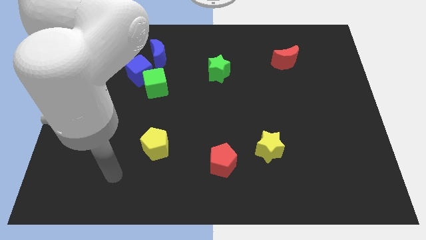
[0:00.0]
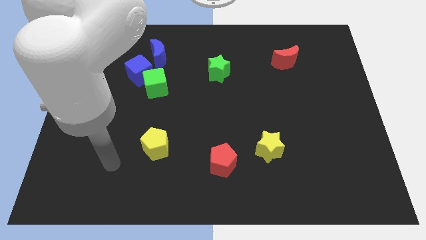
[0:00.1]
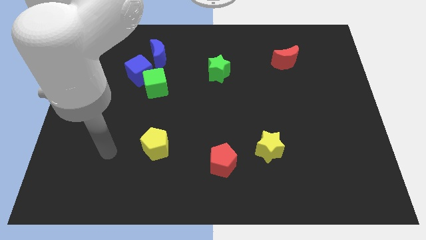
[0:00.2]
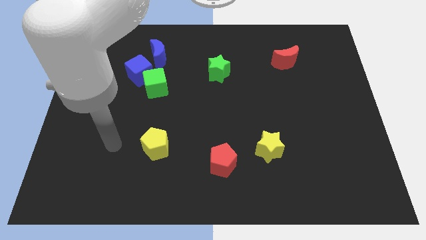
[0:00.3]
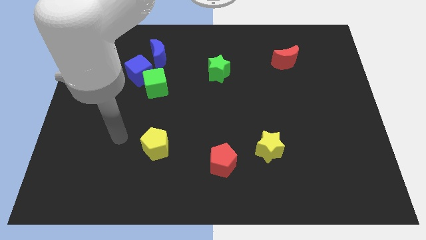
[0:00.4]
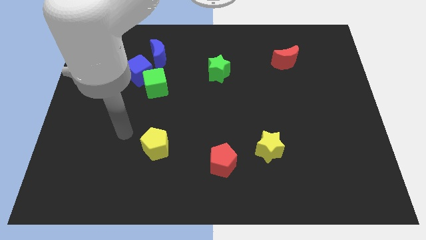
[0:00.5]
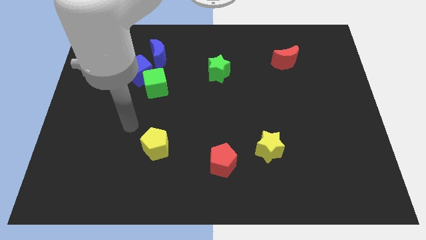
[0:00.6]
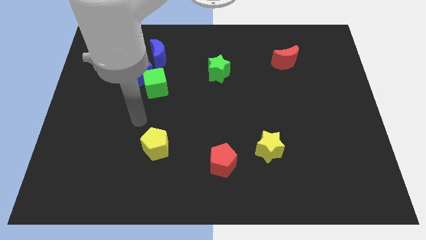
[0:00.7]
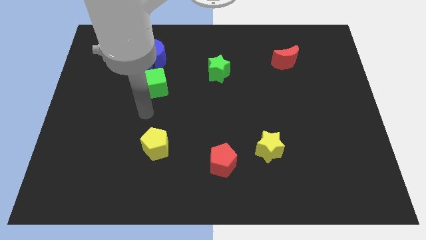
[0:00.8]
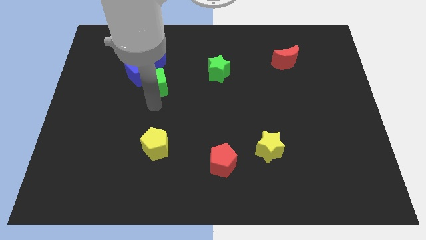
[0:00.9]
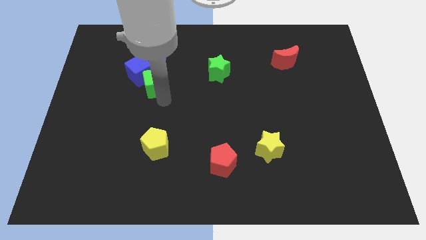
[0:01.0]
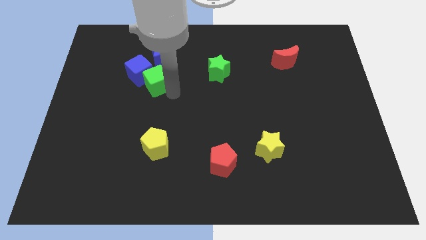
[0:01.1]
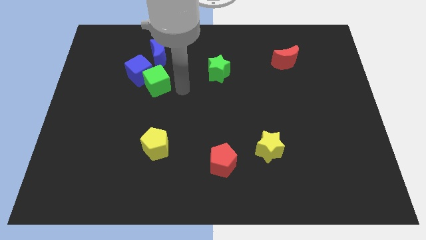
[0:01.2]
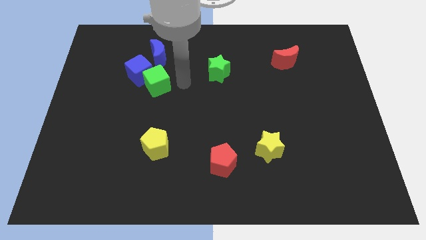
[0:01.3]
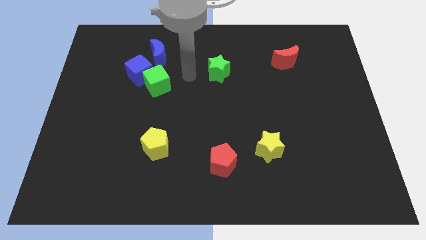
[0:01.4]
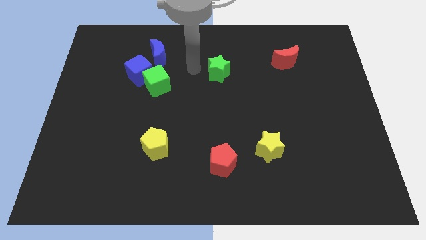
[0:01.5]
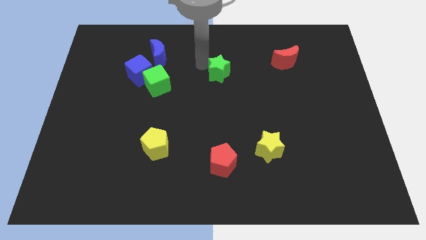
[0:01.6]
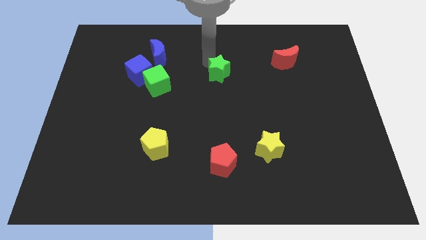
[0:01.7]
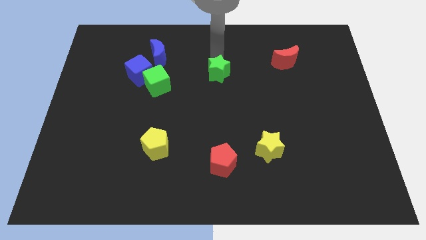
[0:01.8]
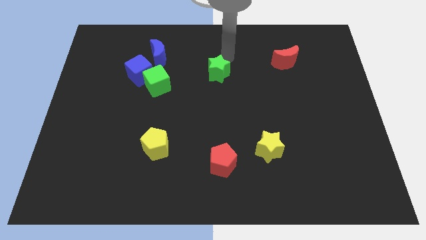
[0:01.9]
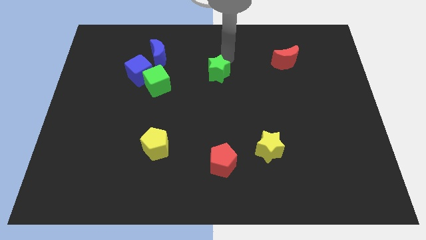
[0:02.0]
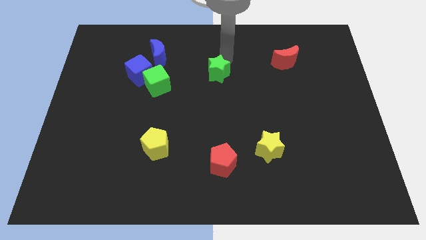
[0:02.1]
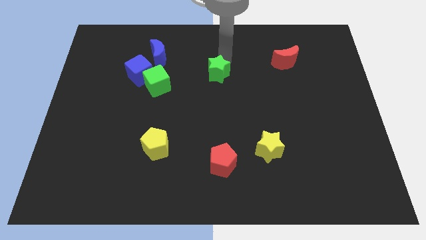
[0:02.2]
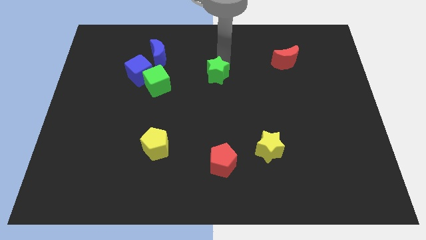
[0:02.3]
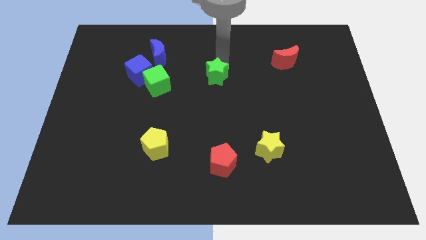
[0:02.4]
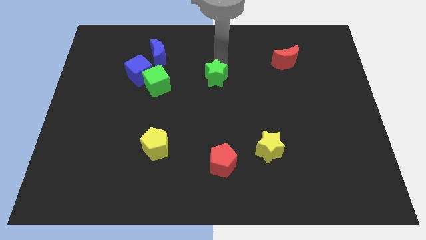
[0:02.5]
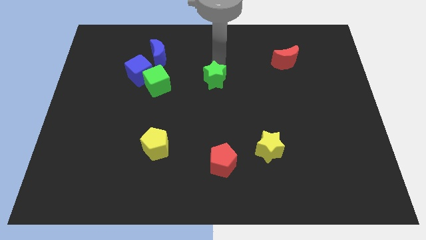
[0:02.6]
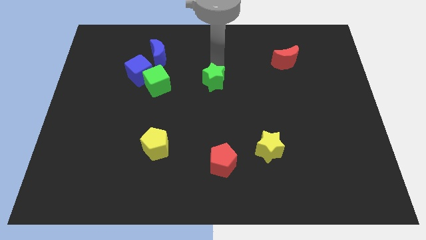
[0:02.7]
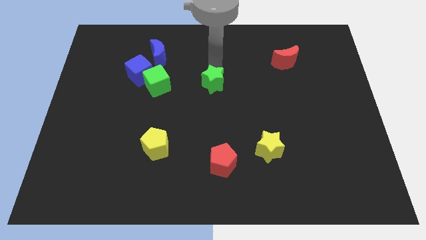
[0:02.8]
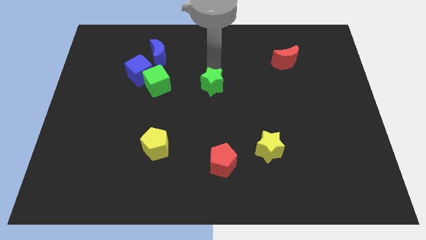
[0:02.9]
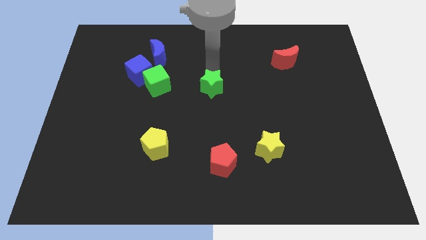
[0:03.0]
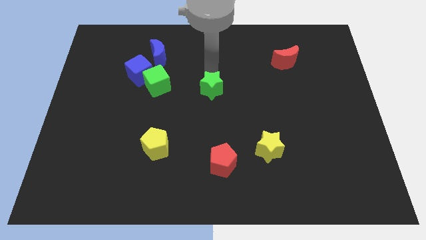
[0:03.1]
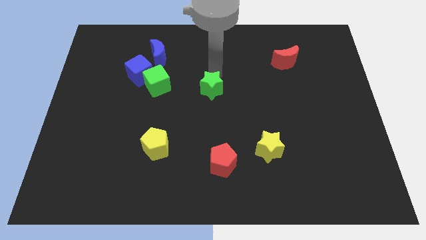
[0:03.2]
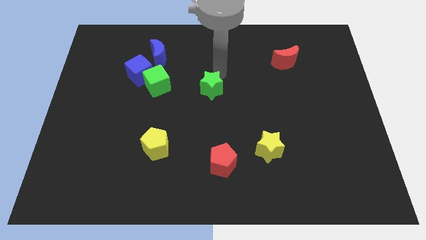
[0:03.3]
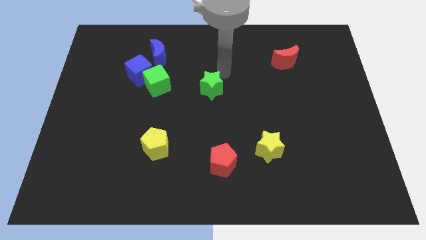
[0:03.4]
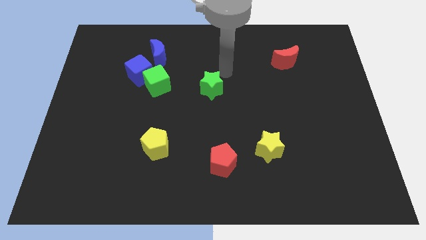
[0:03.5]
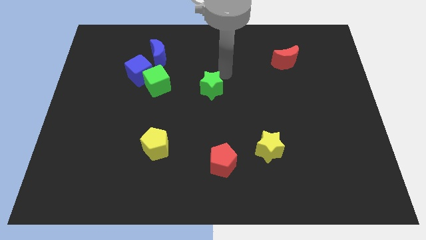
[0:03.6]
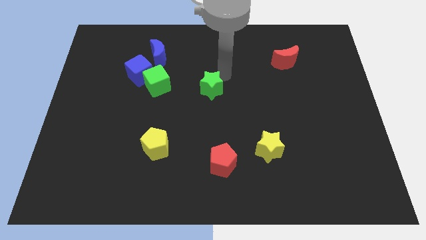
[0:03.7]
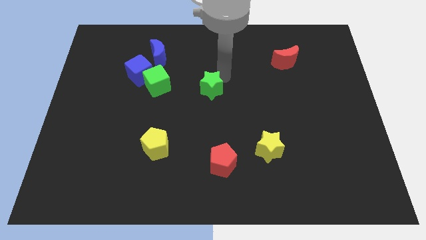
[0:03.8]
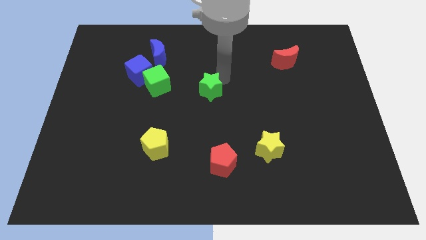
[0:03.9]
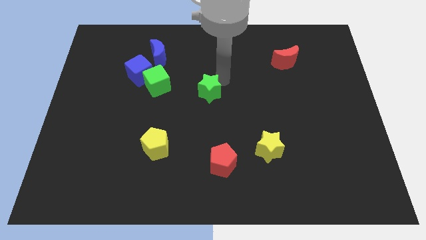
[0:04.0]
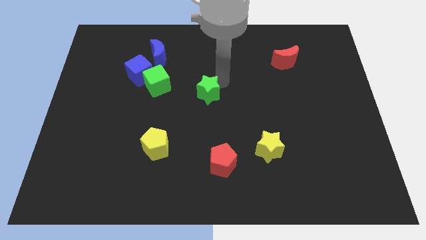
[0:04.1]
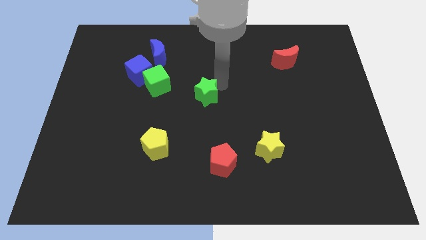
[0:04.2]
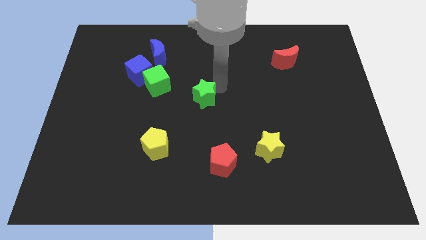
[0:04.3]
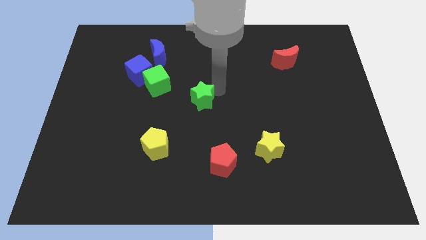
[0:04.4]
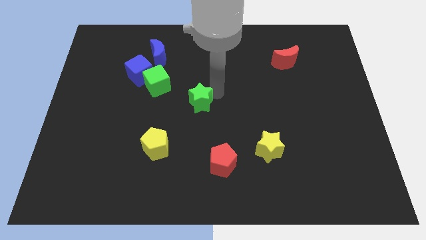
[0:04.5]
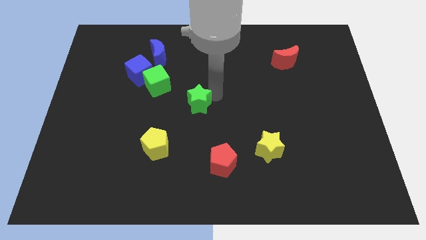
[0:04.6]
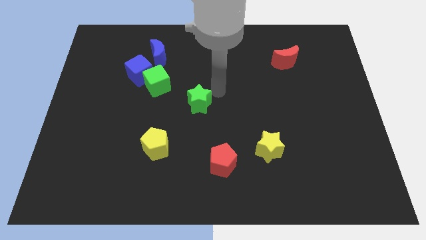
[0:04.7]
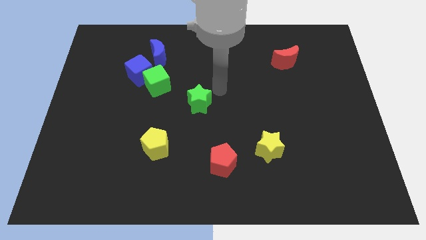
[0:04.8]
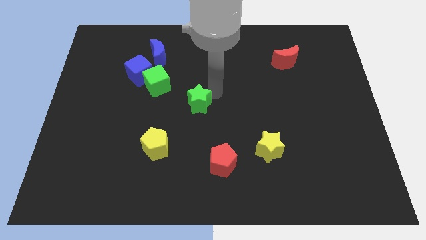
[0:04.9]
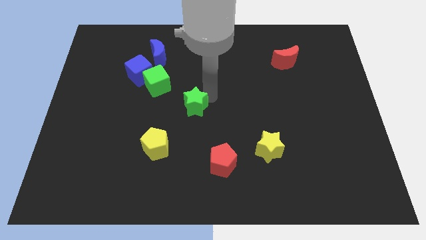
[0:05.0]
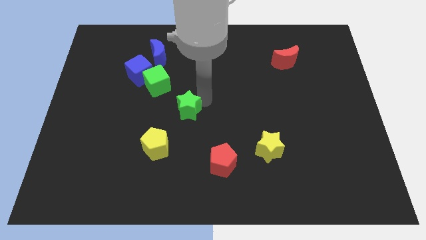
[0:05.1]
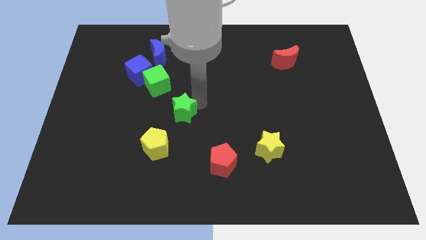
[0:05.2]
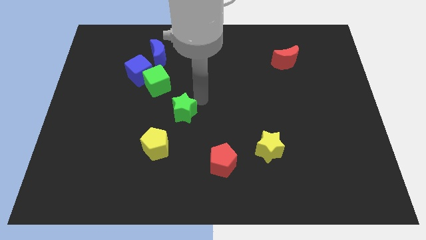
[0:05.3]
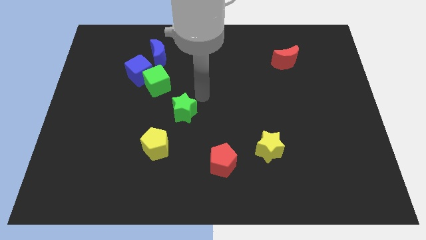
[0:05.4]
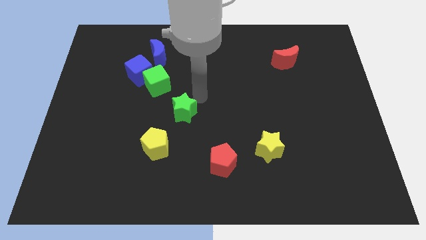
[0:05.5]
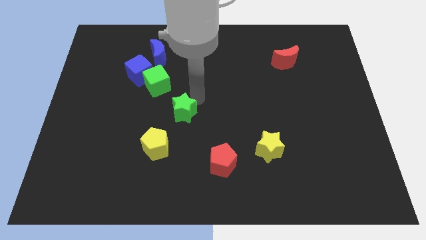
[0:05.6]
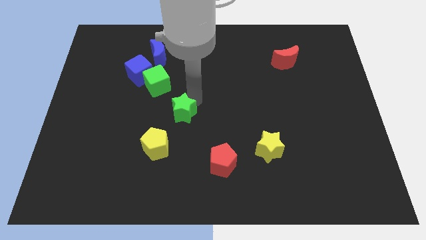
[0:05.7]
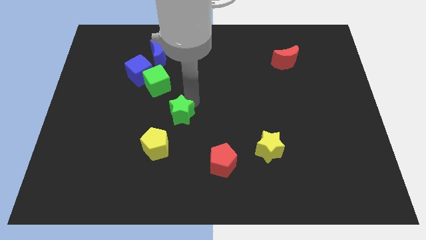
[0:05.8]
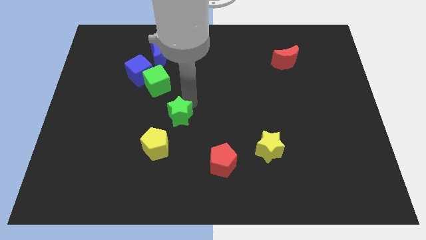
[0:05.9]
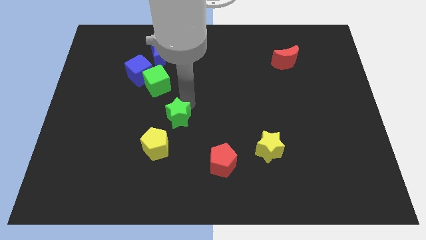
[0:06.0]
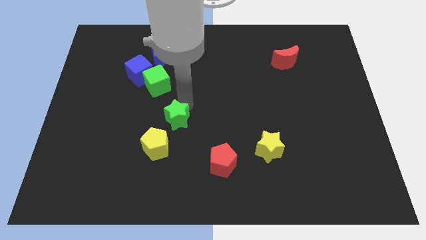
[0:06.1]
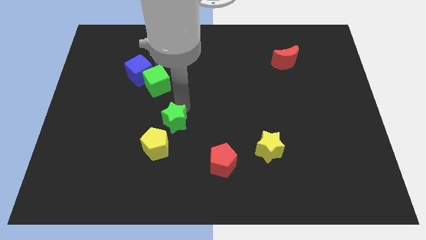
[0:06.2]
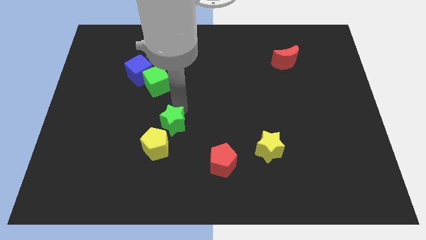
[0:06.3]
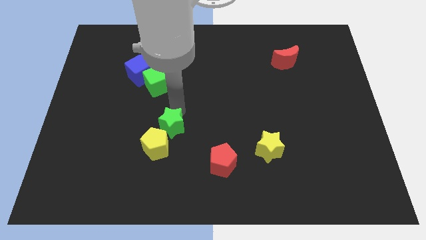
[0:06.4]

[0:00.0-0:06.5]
put the green star to the yellow pentagon

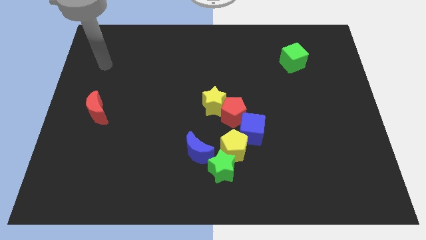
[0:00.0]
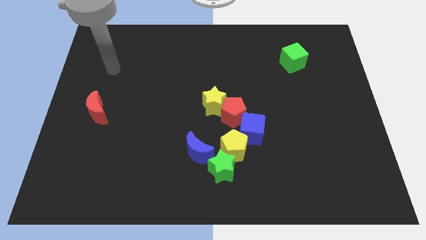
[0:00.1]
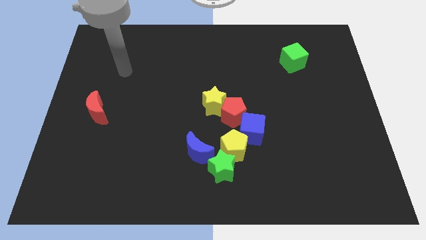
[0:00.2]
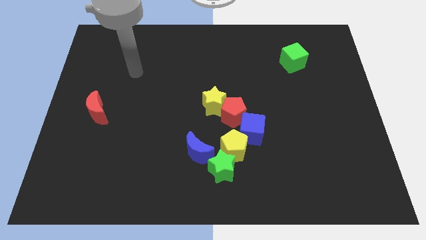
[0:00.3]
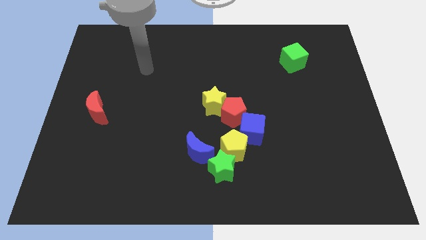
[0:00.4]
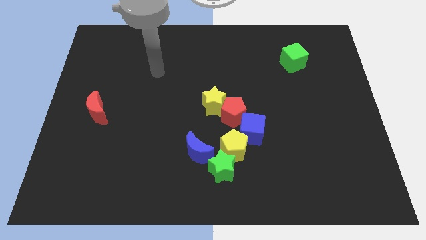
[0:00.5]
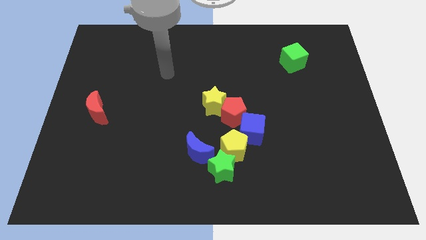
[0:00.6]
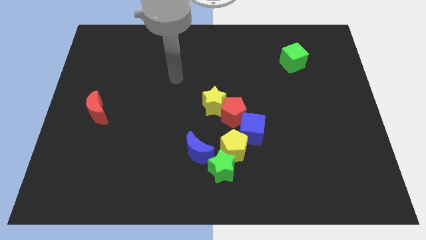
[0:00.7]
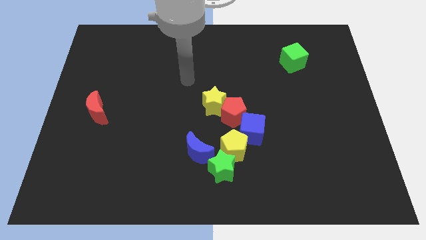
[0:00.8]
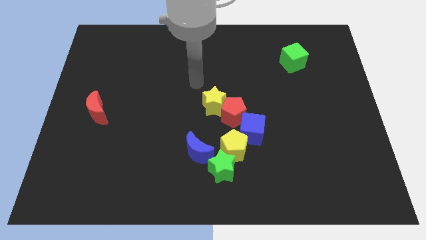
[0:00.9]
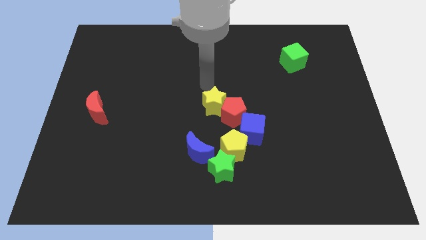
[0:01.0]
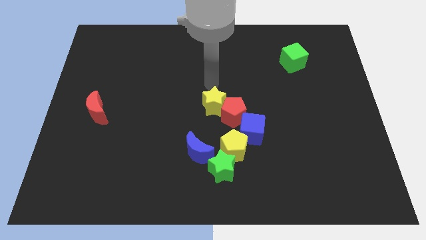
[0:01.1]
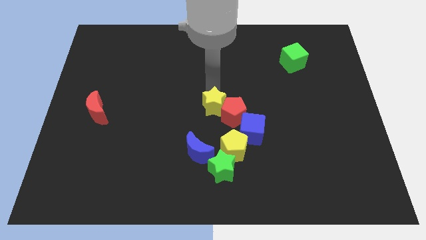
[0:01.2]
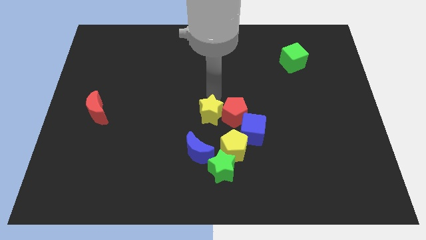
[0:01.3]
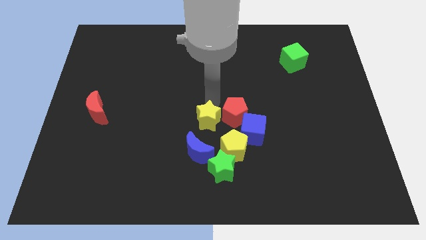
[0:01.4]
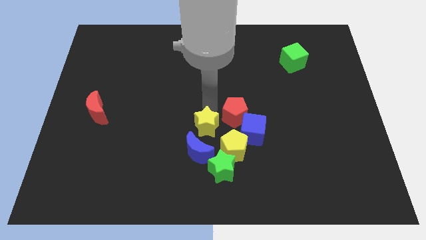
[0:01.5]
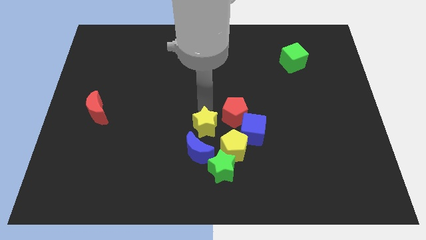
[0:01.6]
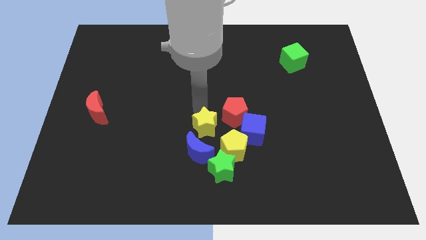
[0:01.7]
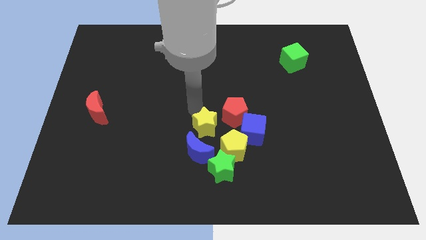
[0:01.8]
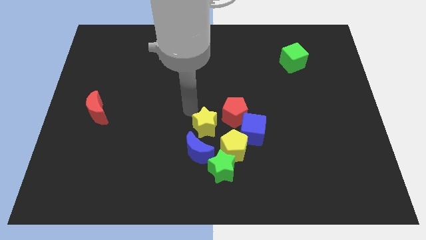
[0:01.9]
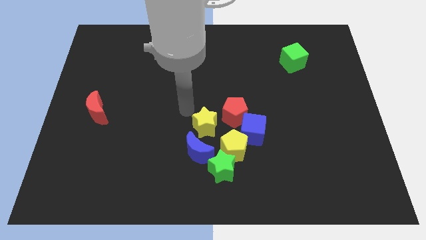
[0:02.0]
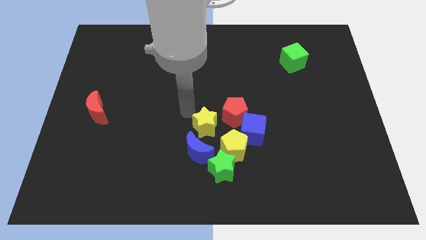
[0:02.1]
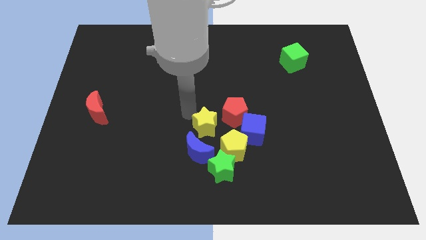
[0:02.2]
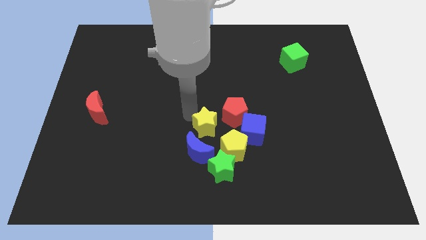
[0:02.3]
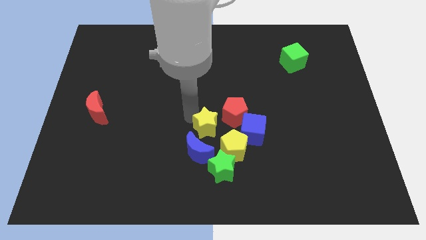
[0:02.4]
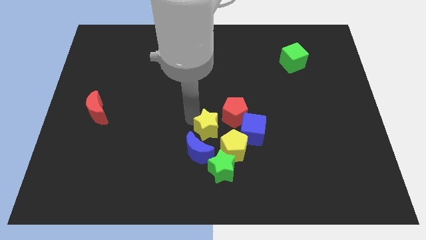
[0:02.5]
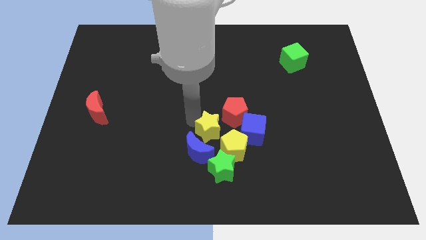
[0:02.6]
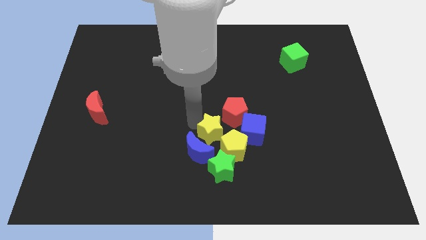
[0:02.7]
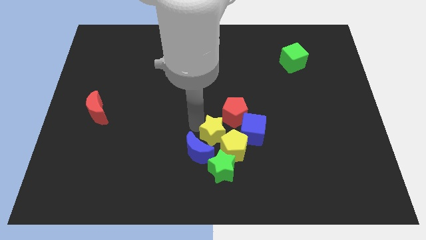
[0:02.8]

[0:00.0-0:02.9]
move the yellow star towards the yellow pentagon
